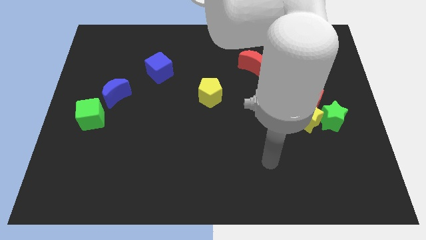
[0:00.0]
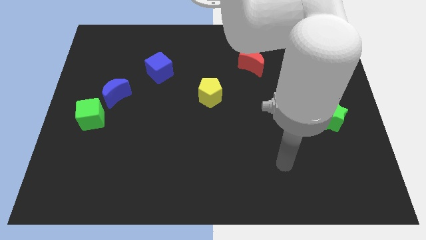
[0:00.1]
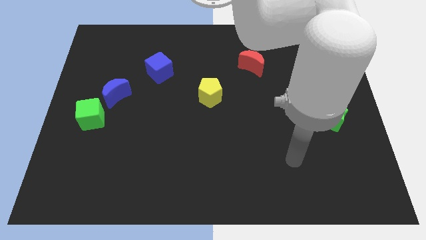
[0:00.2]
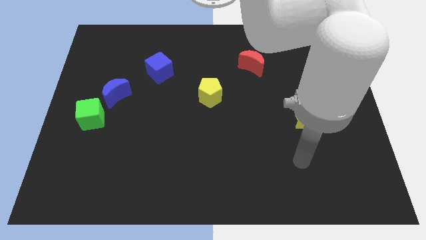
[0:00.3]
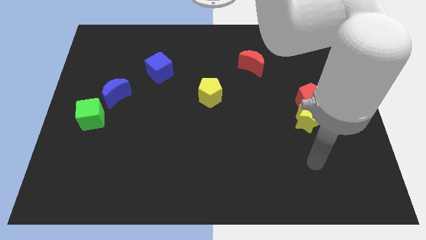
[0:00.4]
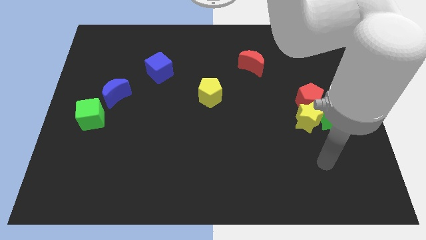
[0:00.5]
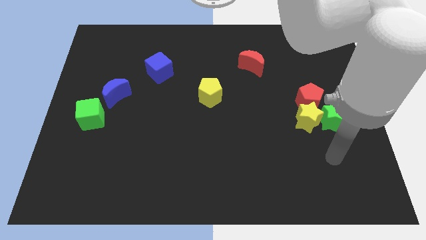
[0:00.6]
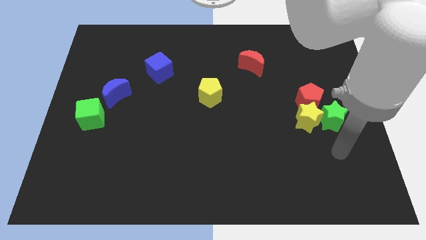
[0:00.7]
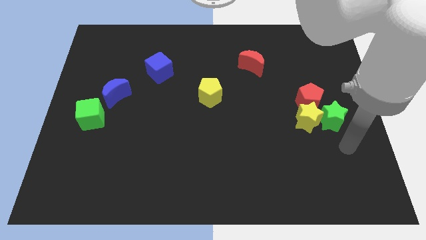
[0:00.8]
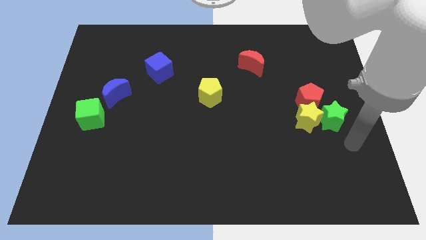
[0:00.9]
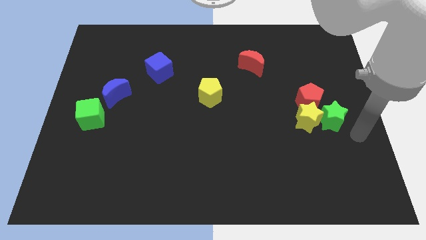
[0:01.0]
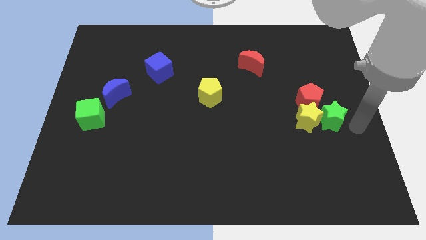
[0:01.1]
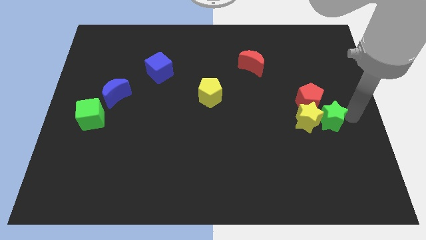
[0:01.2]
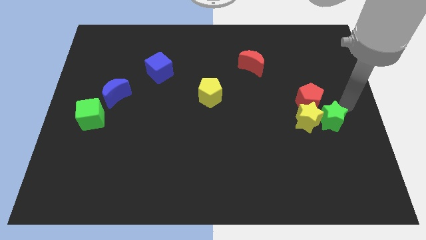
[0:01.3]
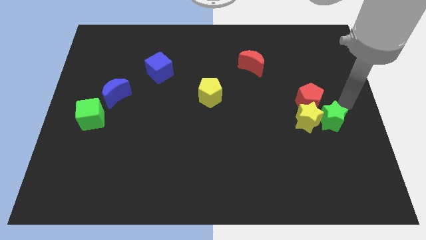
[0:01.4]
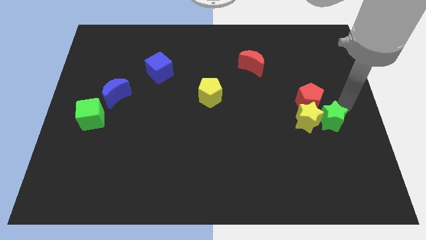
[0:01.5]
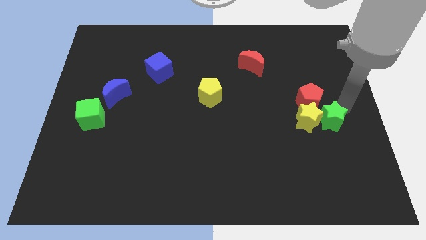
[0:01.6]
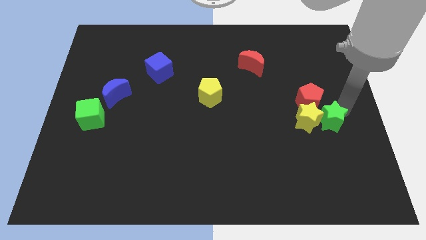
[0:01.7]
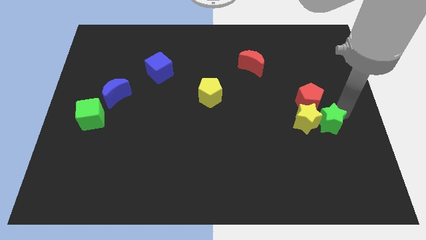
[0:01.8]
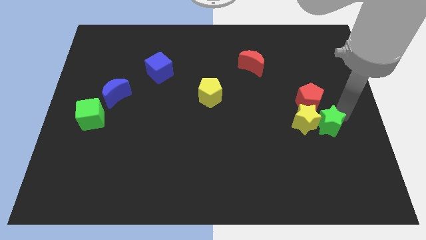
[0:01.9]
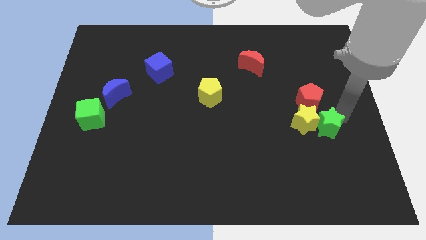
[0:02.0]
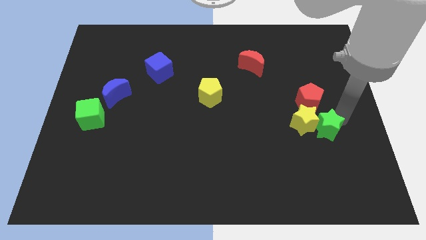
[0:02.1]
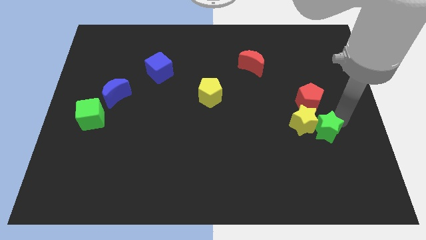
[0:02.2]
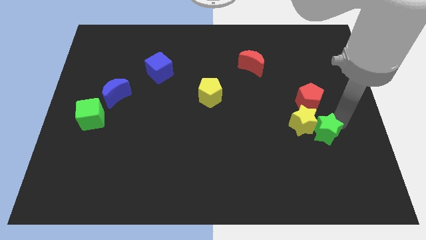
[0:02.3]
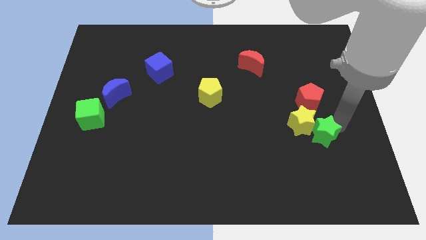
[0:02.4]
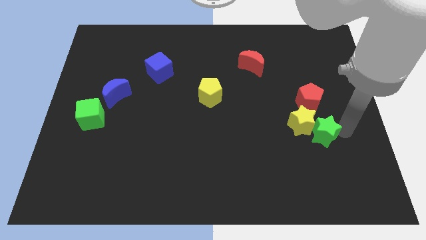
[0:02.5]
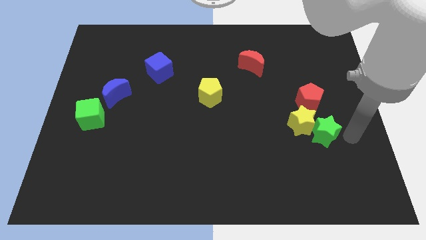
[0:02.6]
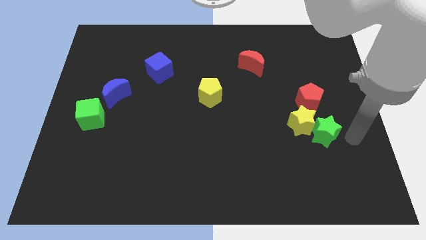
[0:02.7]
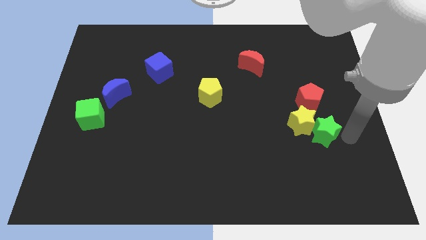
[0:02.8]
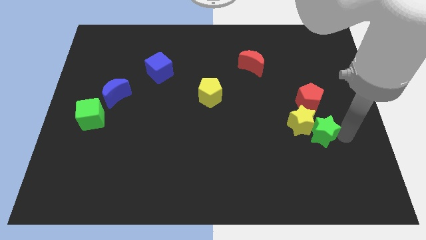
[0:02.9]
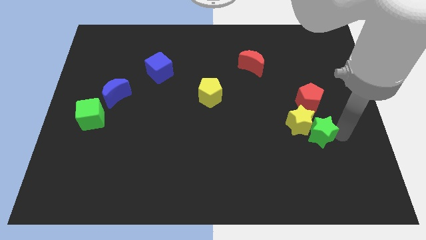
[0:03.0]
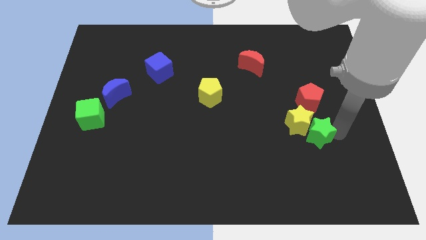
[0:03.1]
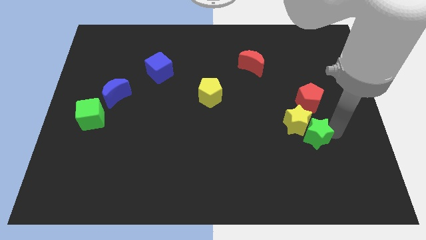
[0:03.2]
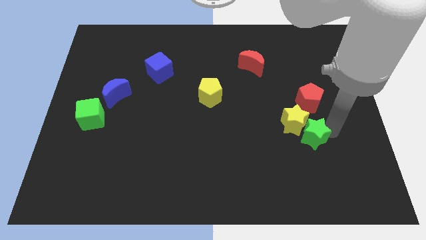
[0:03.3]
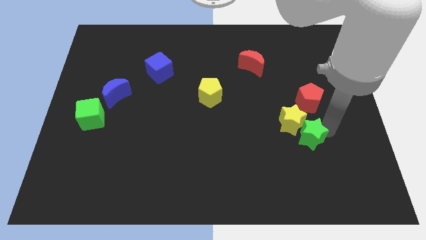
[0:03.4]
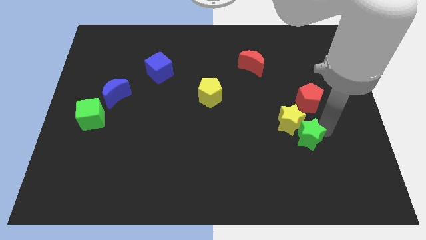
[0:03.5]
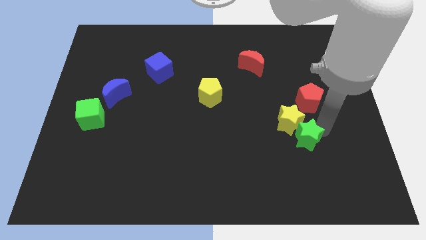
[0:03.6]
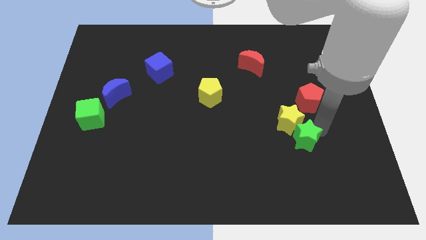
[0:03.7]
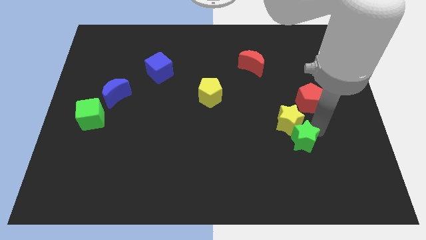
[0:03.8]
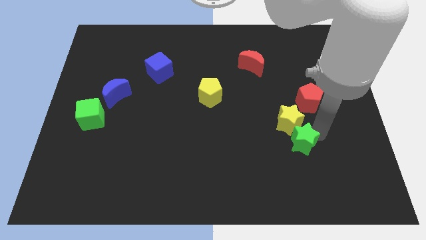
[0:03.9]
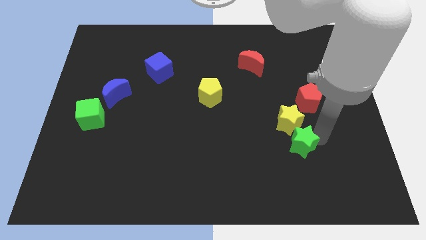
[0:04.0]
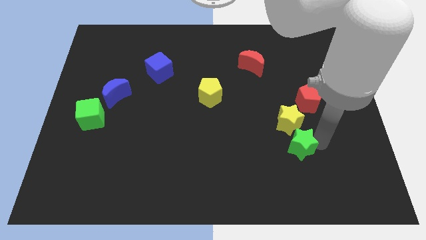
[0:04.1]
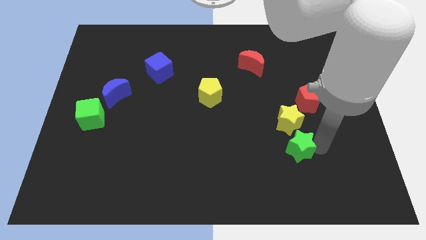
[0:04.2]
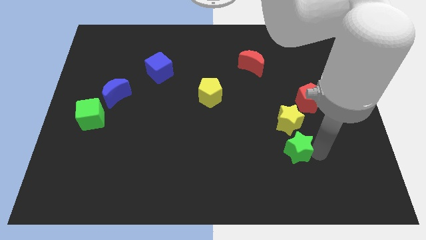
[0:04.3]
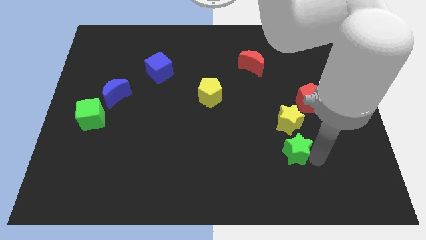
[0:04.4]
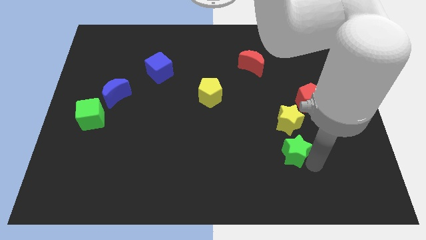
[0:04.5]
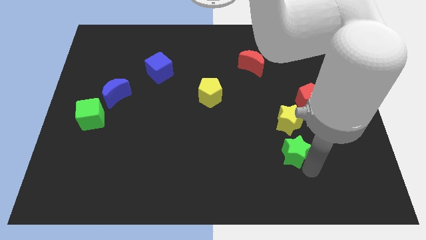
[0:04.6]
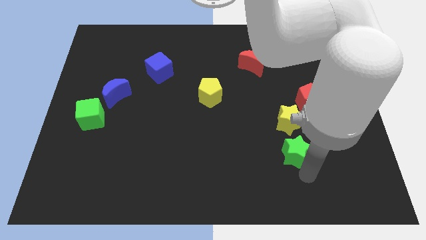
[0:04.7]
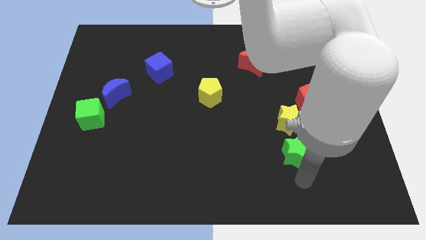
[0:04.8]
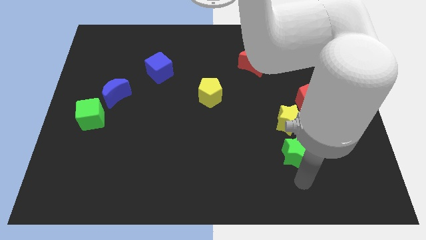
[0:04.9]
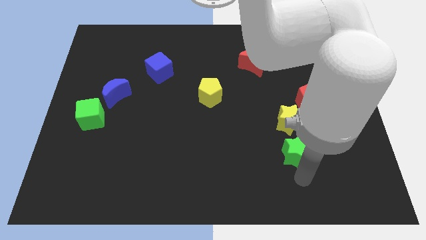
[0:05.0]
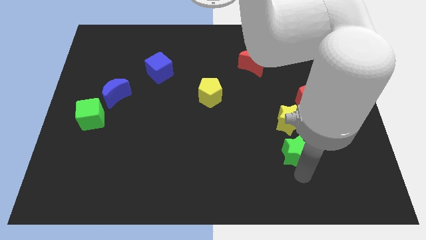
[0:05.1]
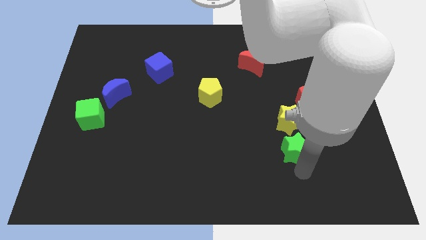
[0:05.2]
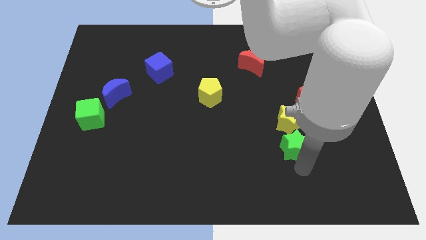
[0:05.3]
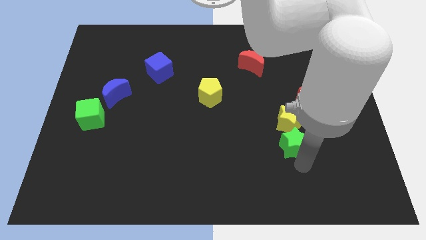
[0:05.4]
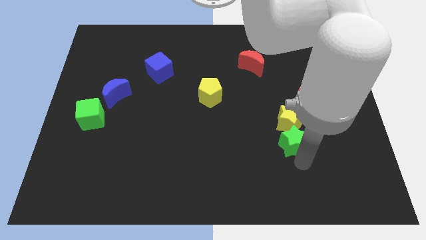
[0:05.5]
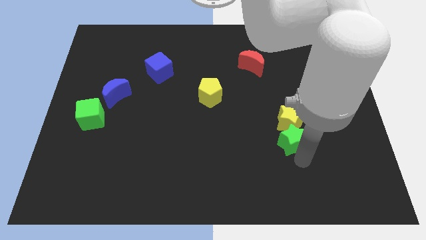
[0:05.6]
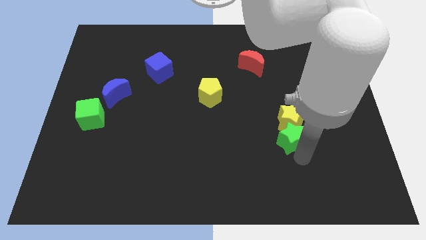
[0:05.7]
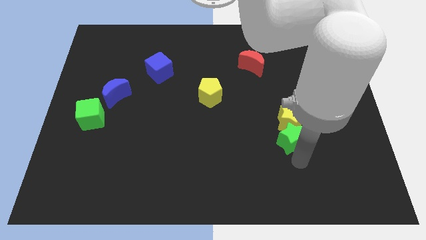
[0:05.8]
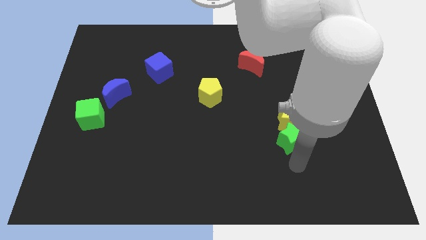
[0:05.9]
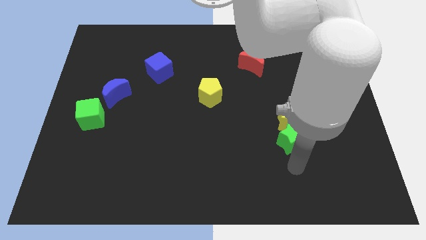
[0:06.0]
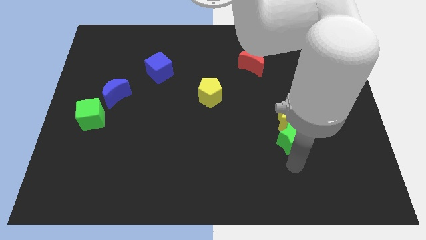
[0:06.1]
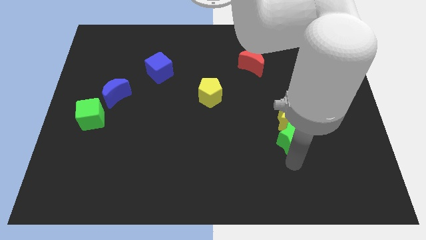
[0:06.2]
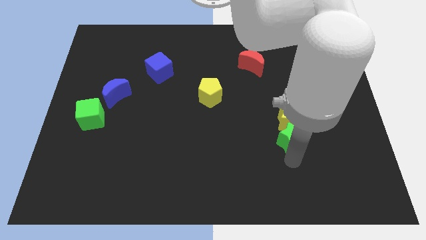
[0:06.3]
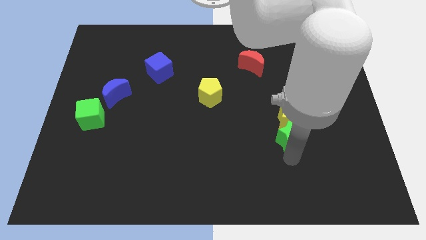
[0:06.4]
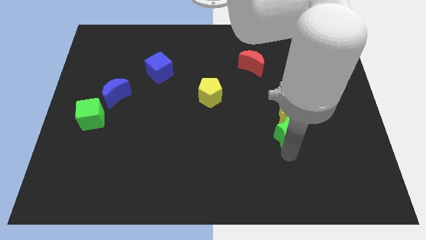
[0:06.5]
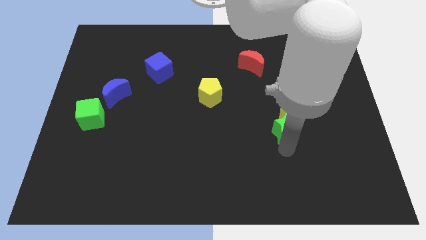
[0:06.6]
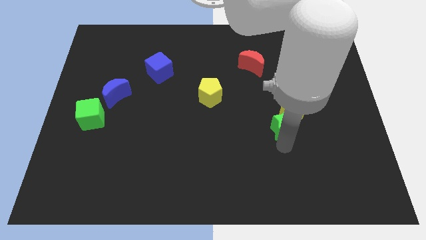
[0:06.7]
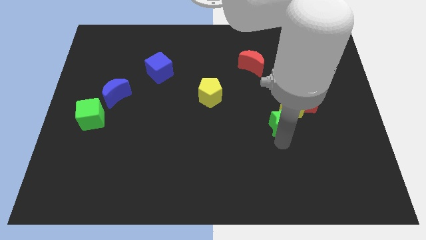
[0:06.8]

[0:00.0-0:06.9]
push the green star to the left of the yellow star

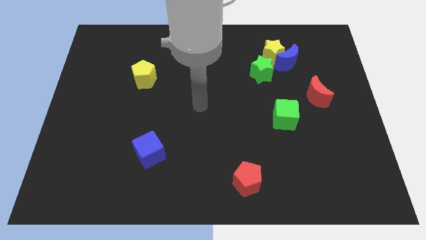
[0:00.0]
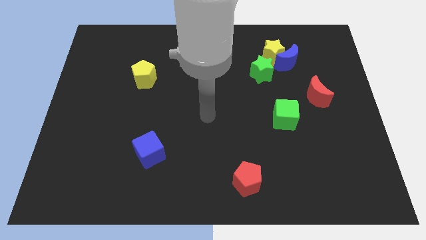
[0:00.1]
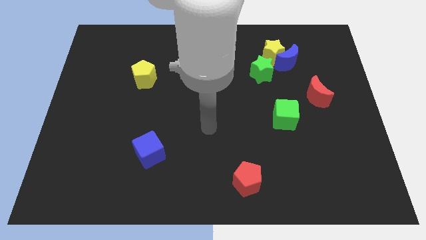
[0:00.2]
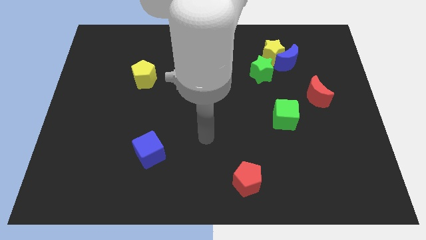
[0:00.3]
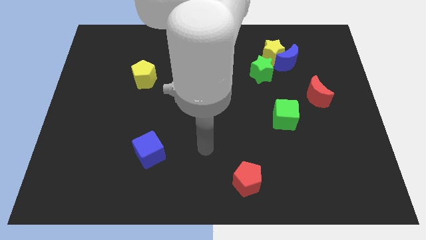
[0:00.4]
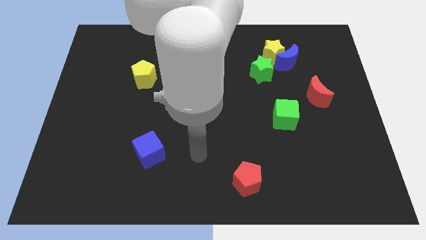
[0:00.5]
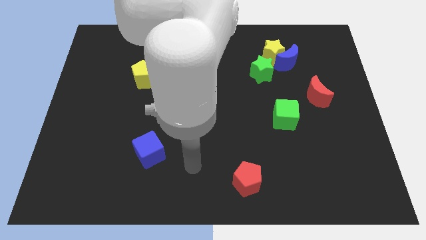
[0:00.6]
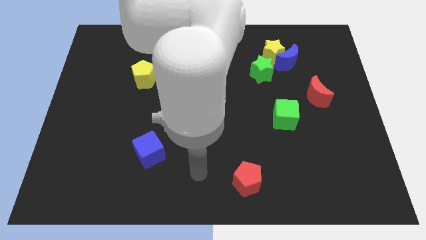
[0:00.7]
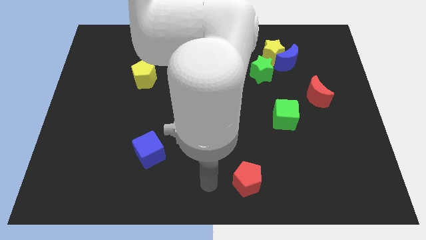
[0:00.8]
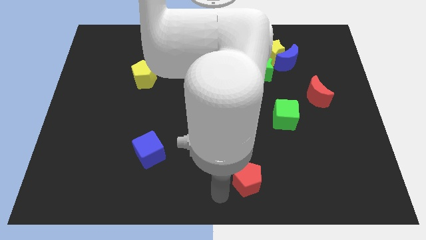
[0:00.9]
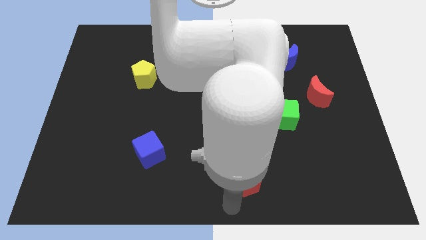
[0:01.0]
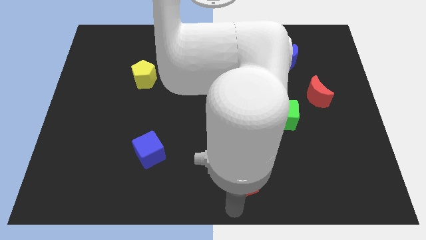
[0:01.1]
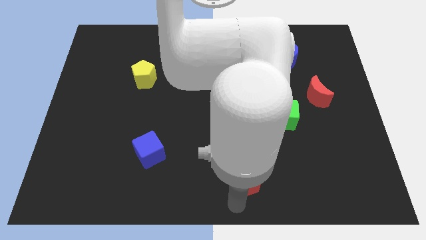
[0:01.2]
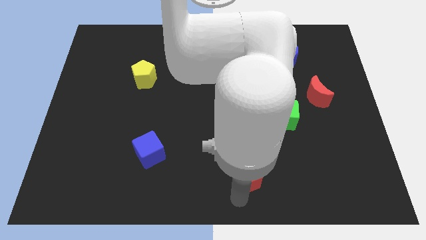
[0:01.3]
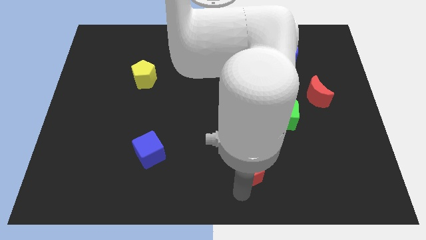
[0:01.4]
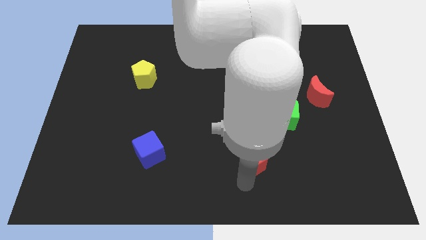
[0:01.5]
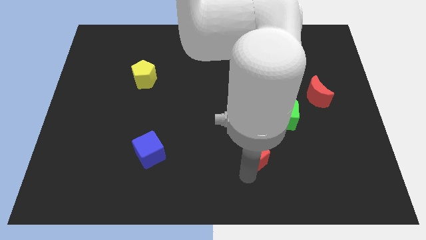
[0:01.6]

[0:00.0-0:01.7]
move the red pentagon to the bottom left of the green cube
